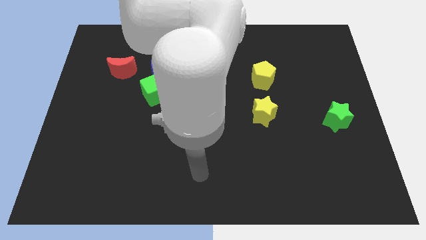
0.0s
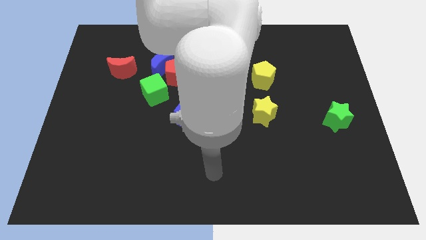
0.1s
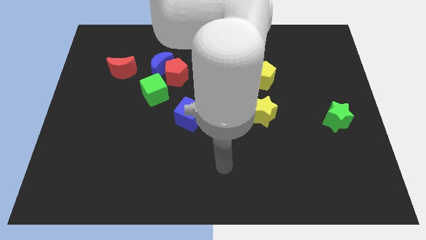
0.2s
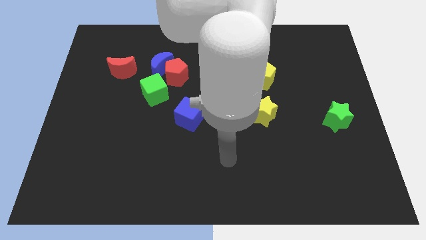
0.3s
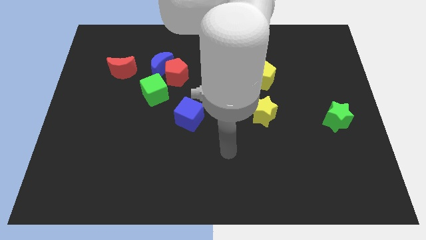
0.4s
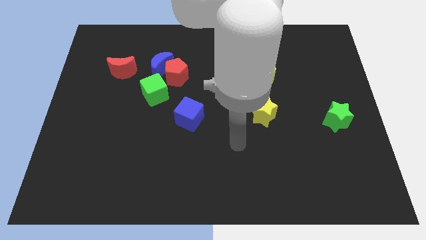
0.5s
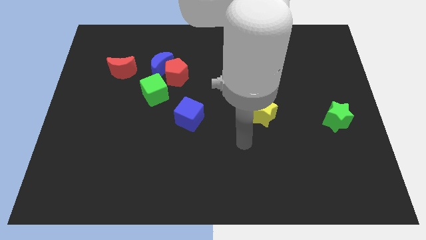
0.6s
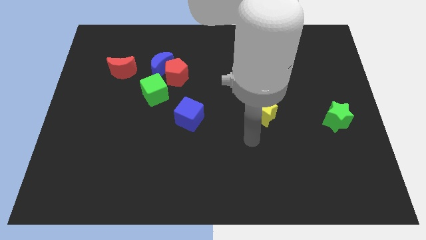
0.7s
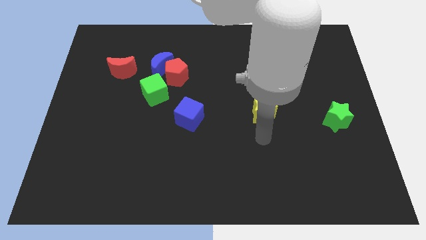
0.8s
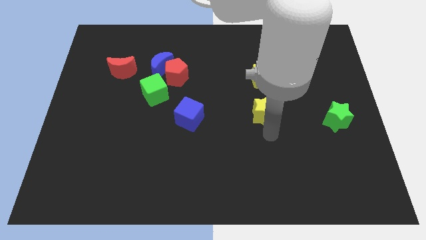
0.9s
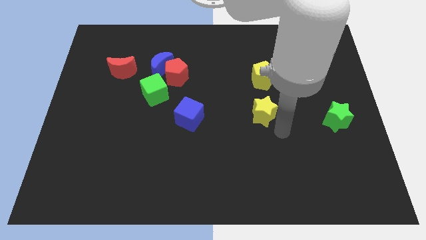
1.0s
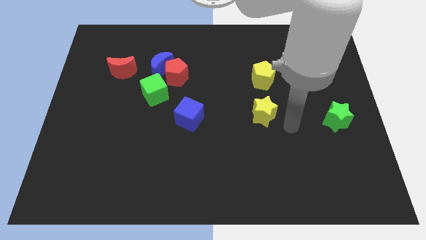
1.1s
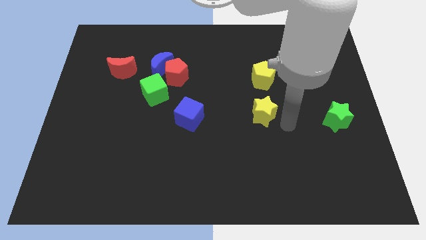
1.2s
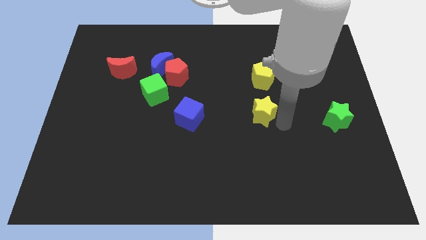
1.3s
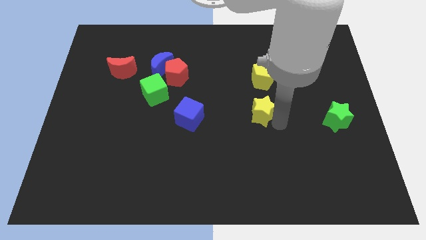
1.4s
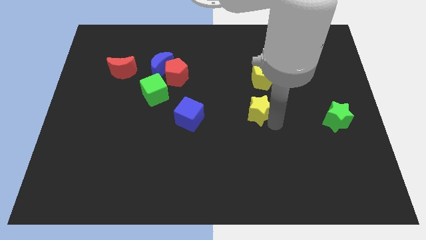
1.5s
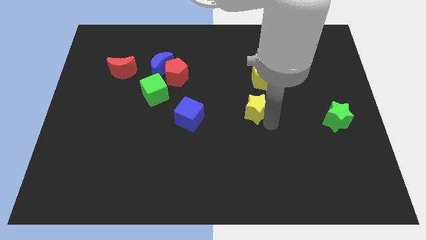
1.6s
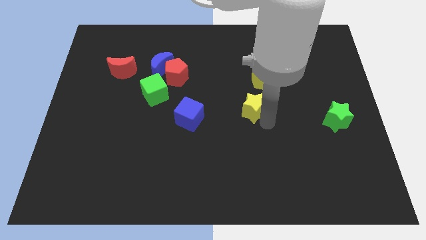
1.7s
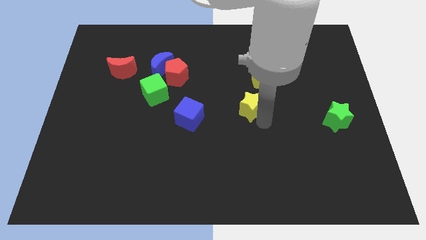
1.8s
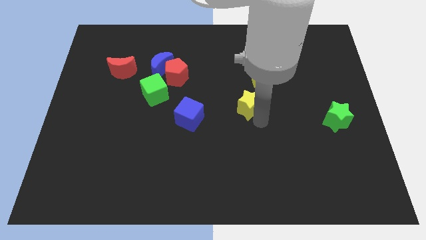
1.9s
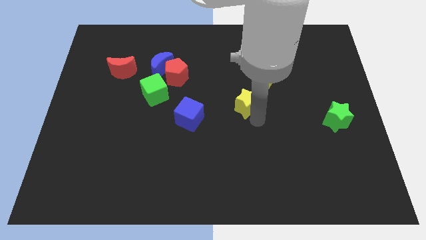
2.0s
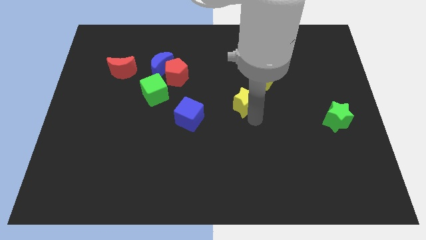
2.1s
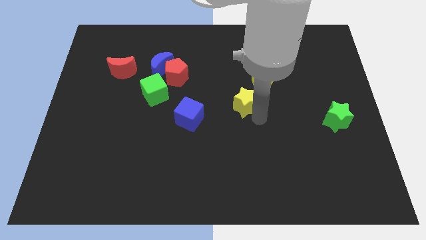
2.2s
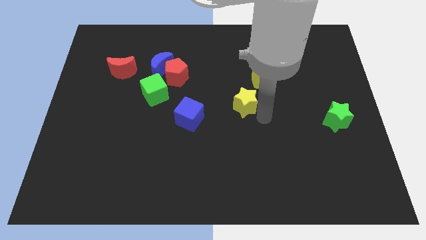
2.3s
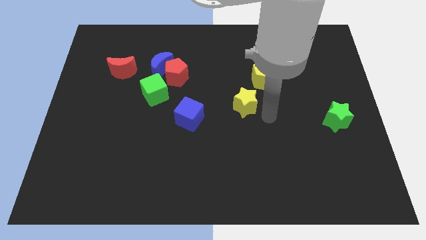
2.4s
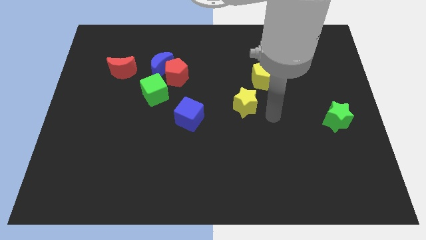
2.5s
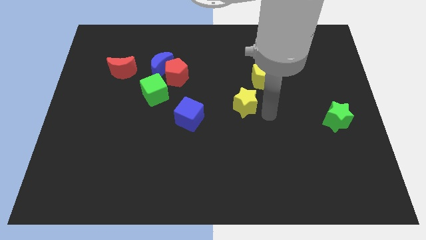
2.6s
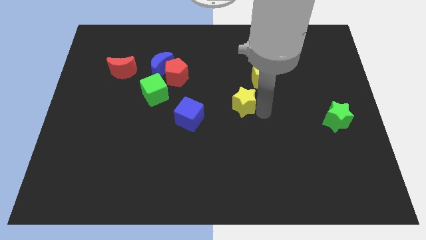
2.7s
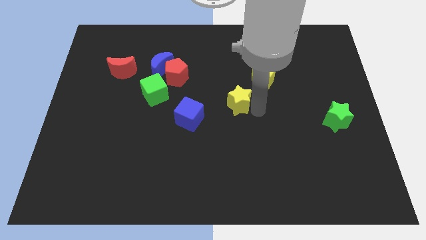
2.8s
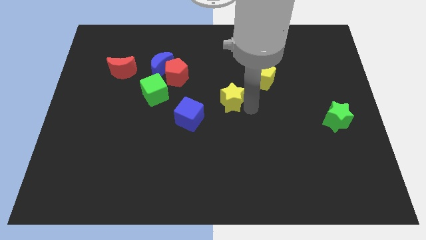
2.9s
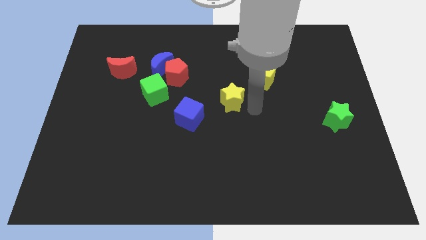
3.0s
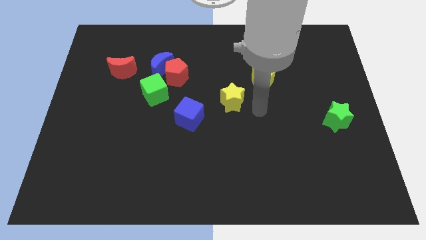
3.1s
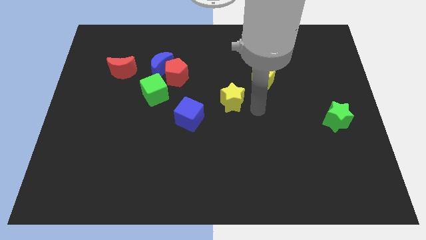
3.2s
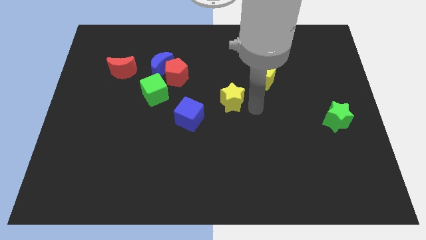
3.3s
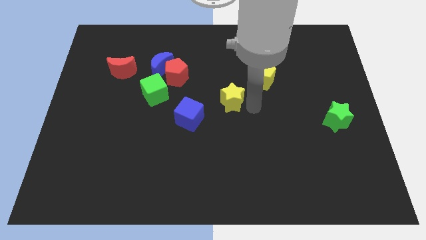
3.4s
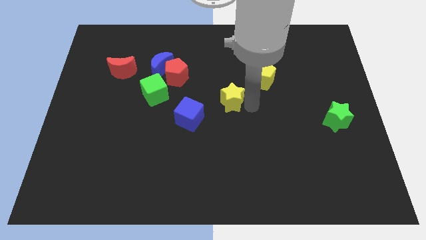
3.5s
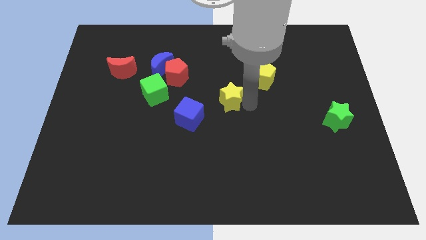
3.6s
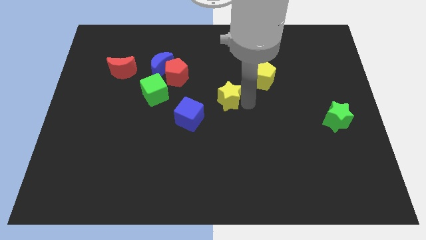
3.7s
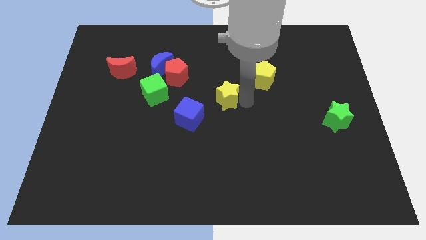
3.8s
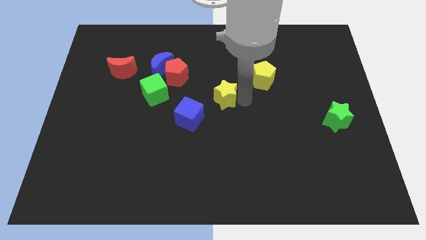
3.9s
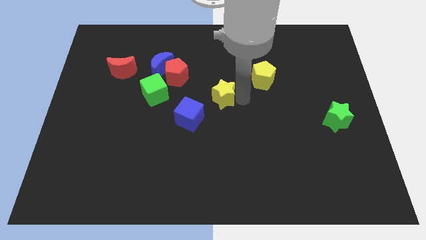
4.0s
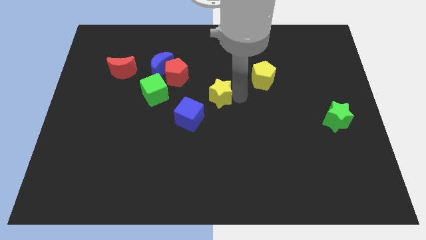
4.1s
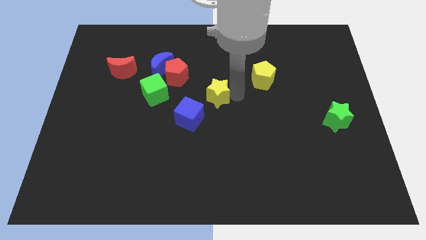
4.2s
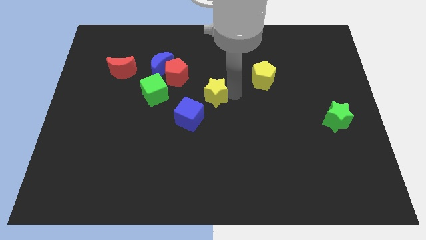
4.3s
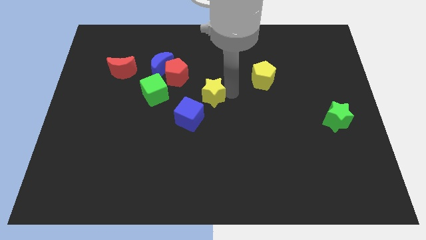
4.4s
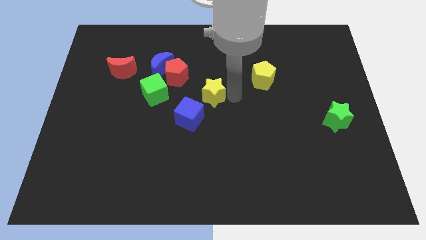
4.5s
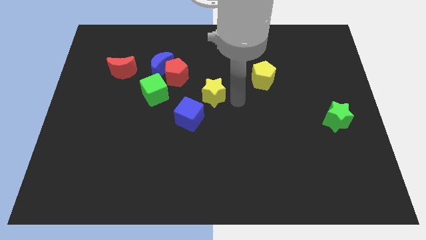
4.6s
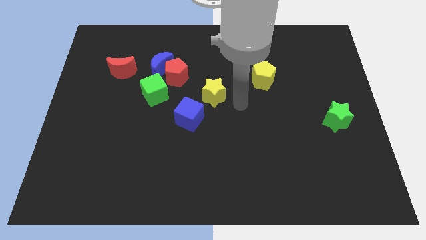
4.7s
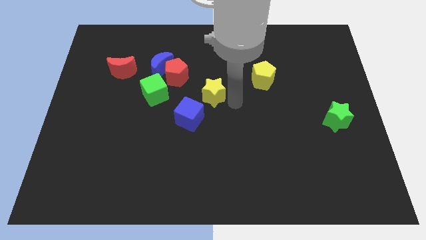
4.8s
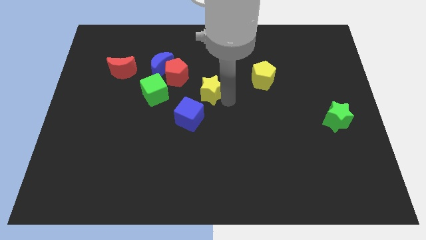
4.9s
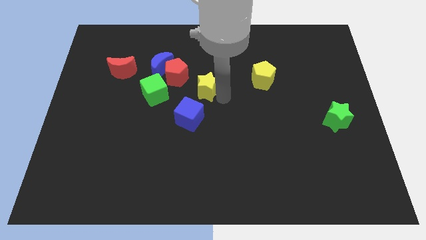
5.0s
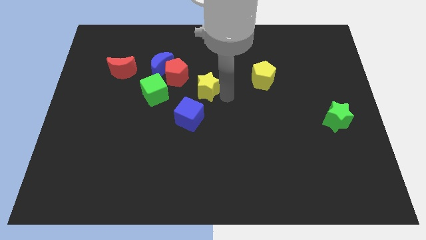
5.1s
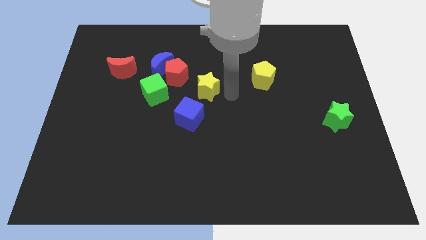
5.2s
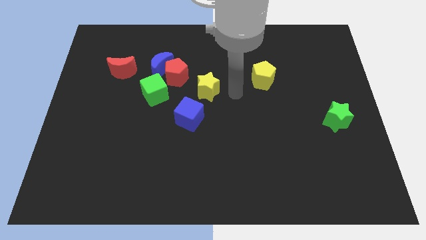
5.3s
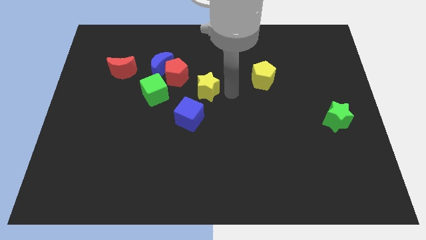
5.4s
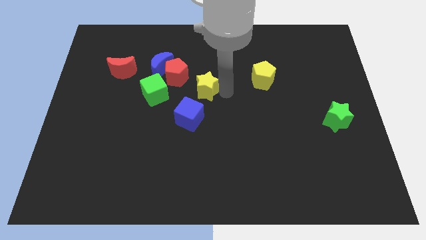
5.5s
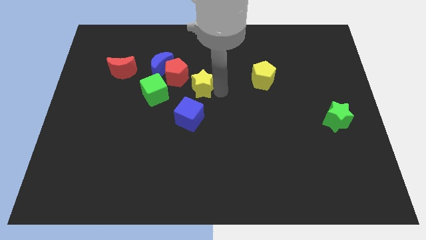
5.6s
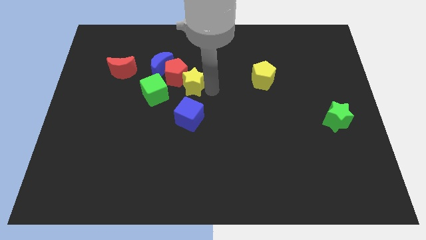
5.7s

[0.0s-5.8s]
push the yellow star next to the red pentagon

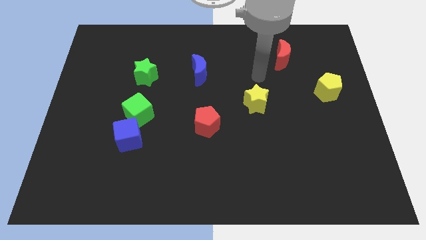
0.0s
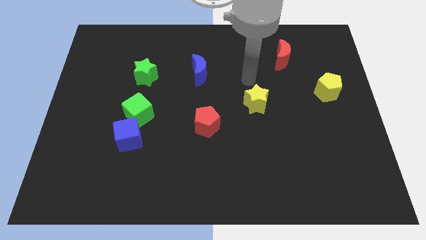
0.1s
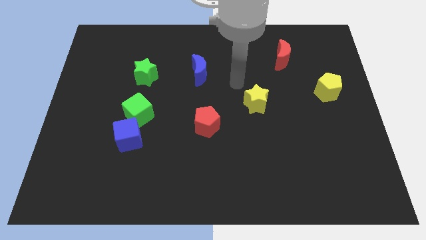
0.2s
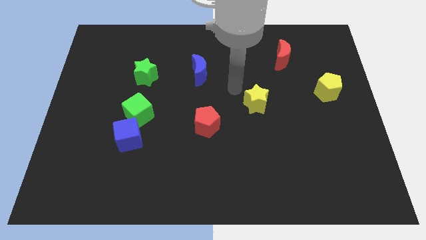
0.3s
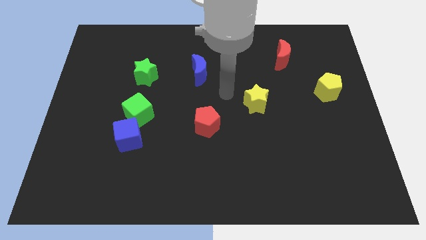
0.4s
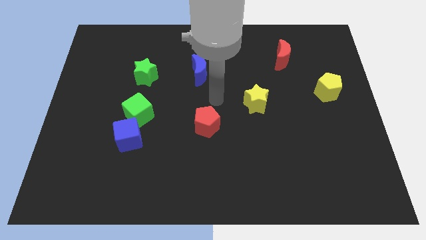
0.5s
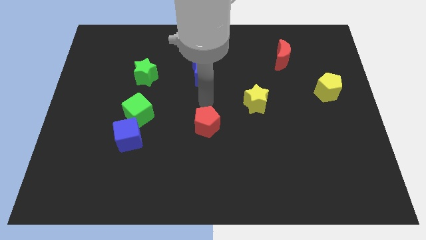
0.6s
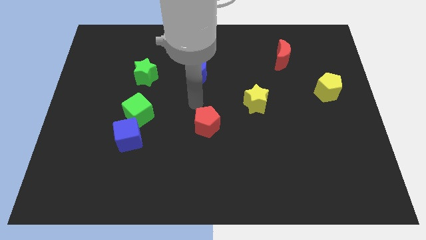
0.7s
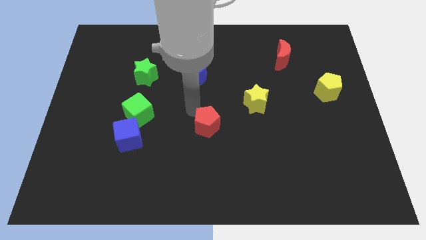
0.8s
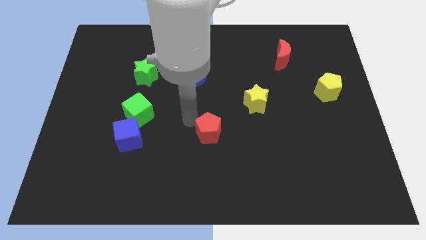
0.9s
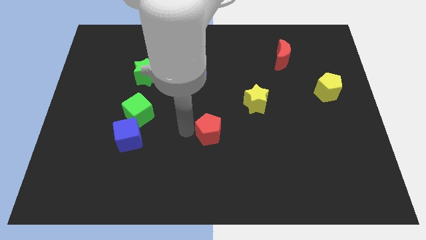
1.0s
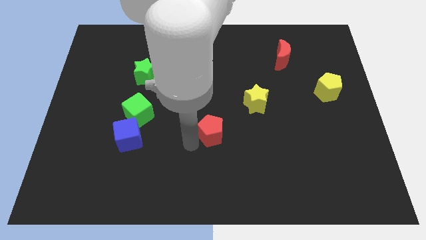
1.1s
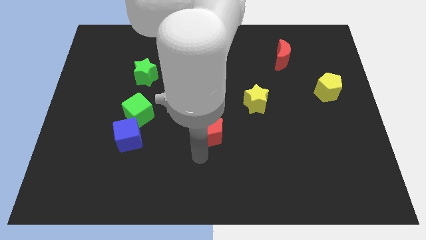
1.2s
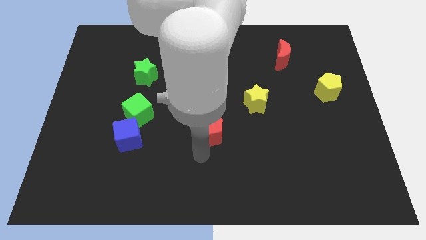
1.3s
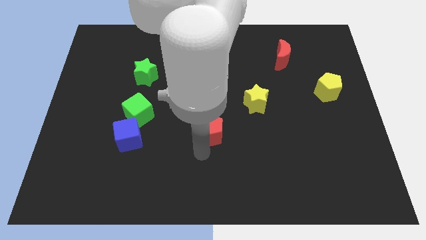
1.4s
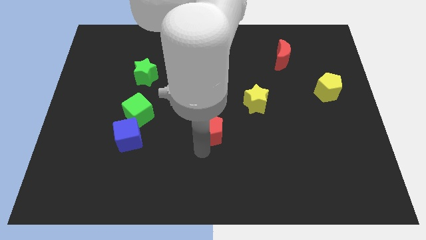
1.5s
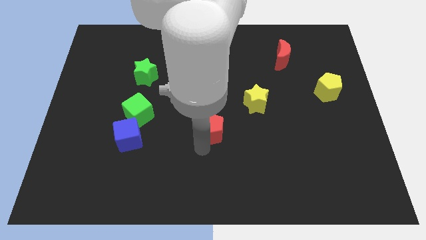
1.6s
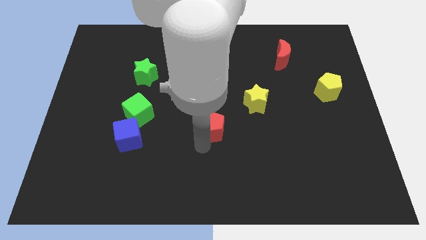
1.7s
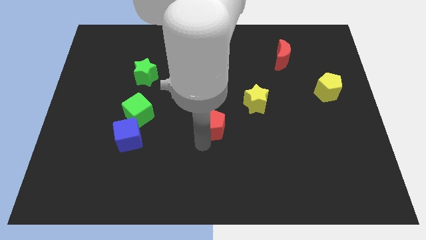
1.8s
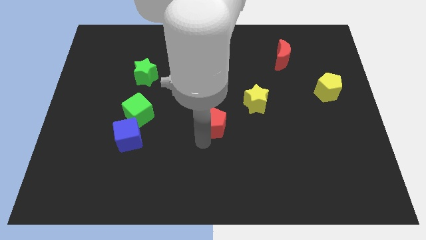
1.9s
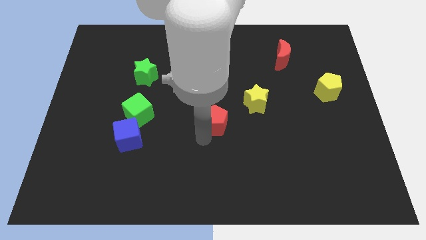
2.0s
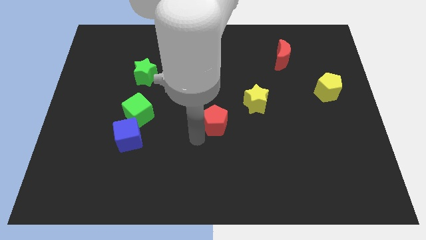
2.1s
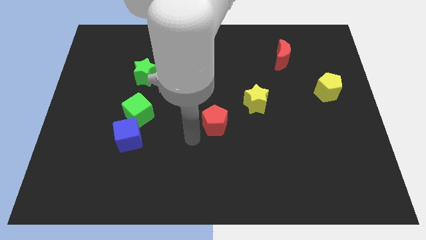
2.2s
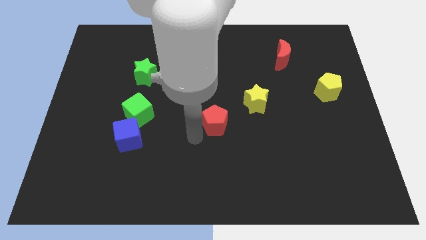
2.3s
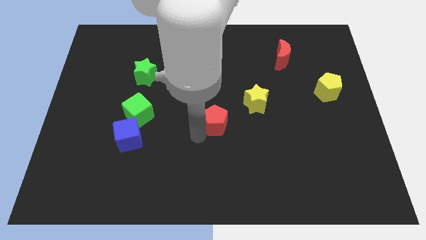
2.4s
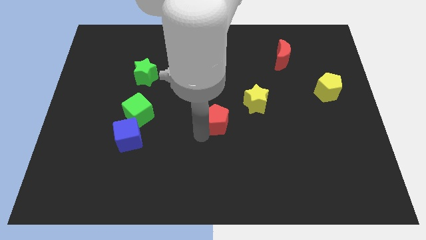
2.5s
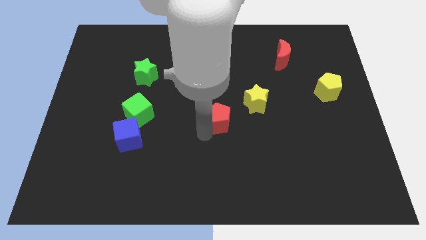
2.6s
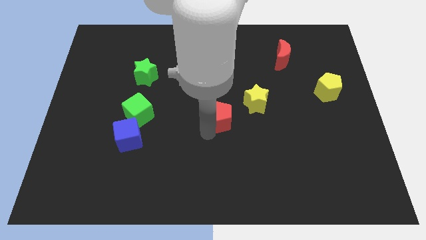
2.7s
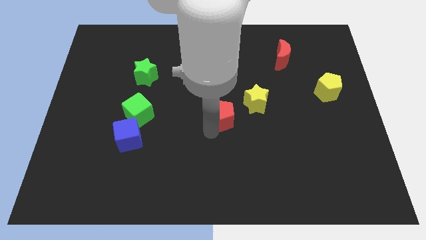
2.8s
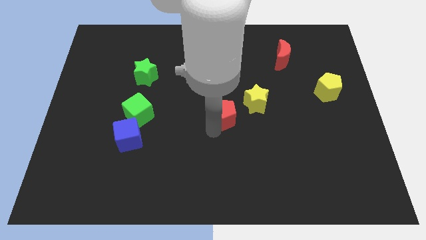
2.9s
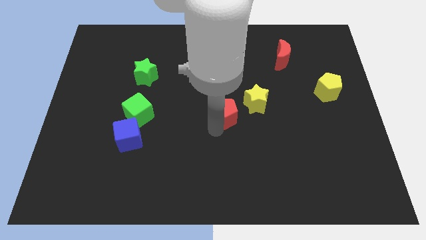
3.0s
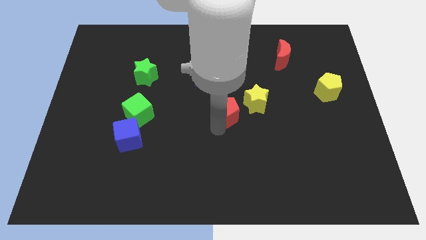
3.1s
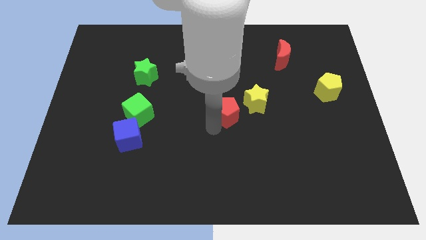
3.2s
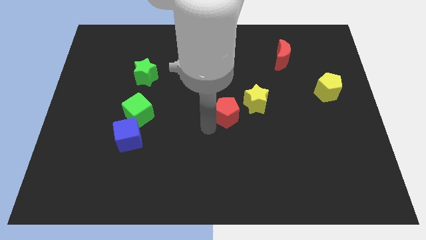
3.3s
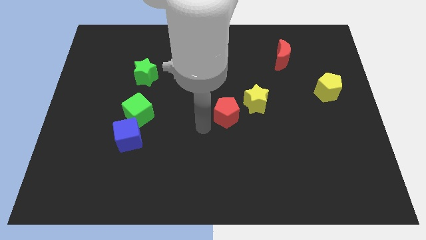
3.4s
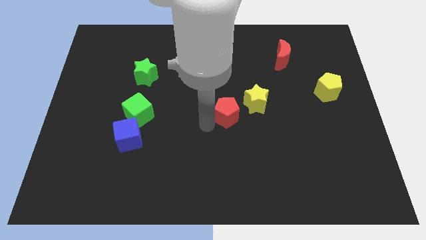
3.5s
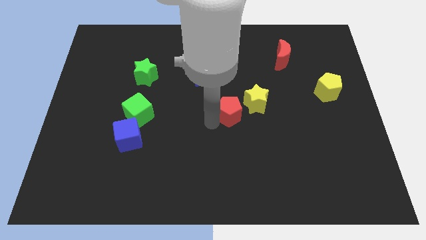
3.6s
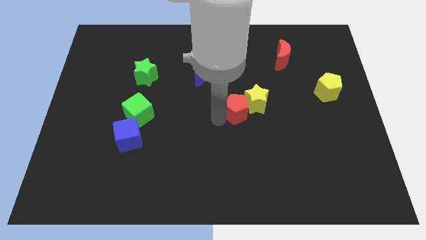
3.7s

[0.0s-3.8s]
move the red pentagon to the yellow star
